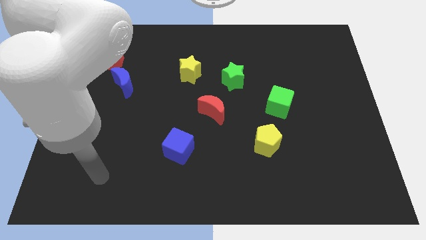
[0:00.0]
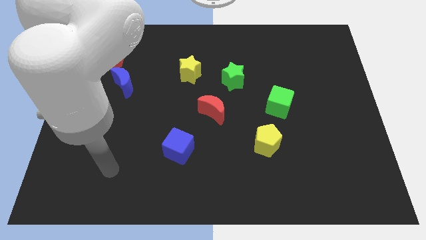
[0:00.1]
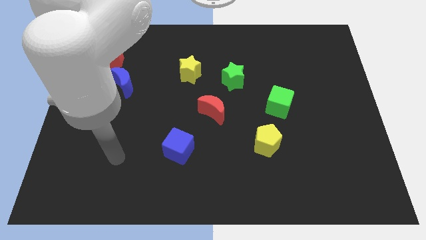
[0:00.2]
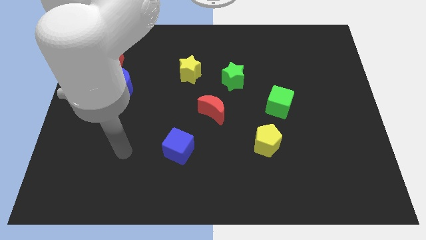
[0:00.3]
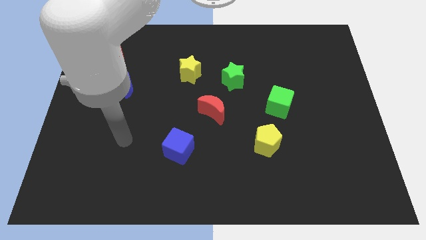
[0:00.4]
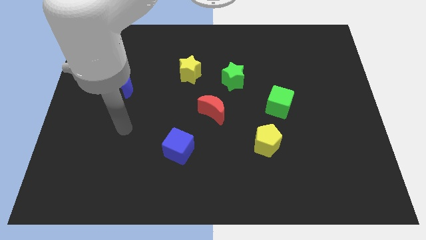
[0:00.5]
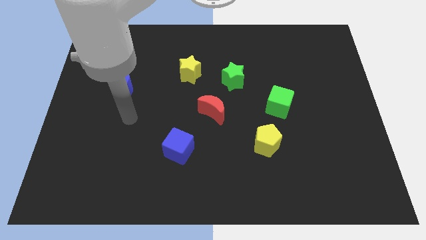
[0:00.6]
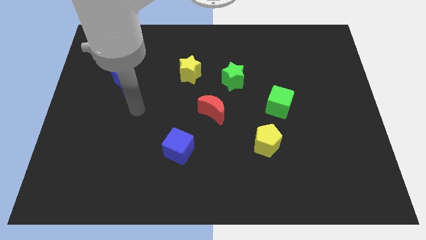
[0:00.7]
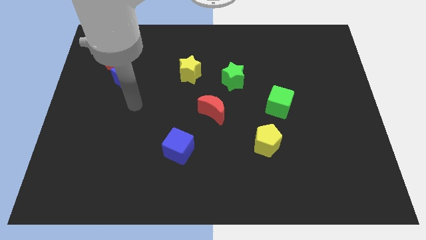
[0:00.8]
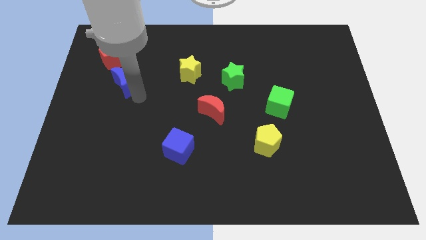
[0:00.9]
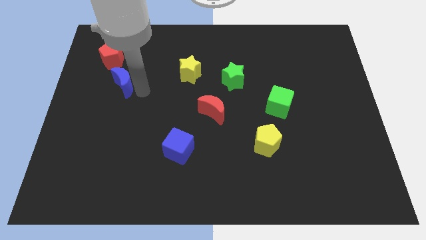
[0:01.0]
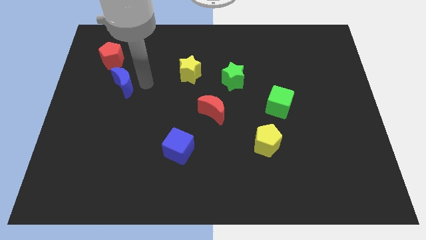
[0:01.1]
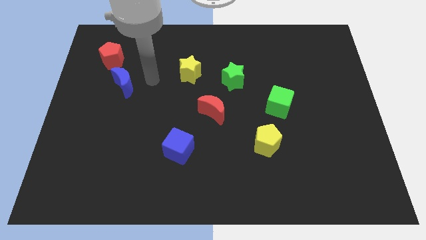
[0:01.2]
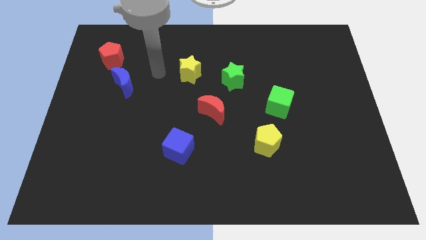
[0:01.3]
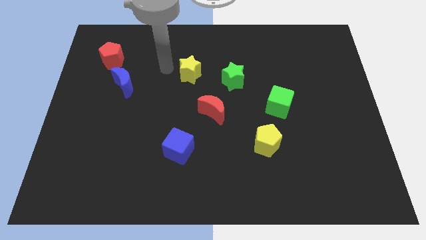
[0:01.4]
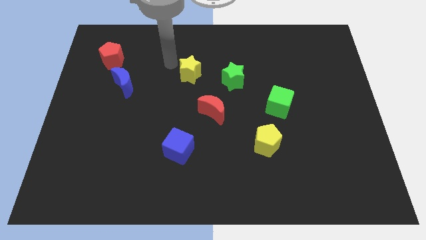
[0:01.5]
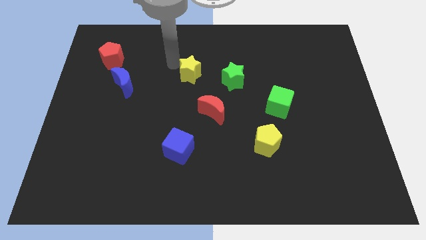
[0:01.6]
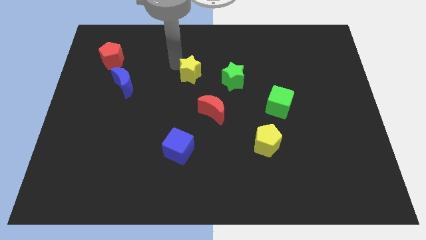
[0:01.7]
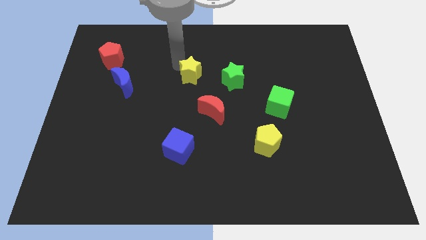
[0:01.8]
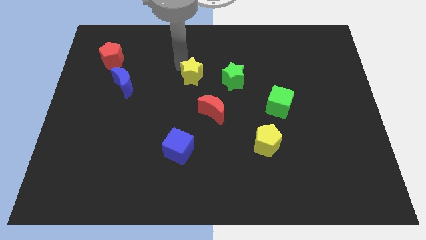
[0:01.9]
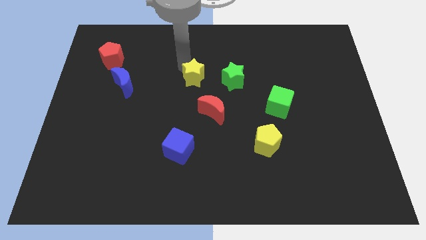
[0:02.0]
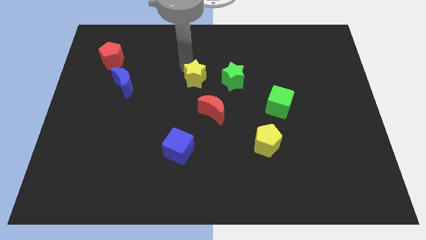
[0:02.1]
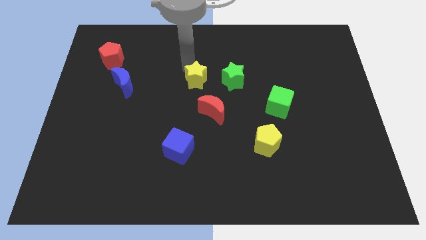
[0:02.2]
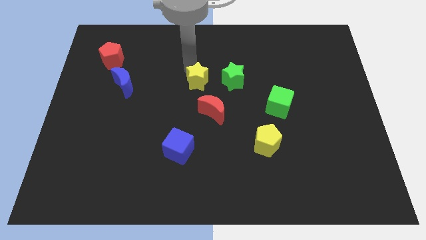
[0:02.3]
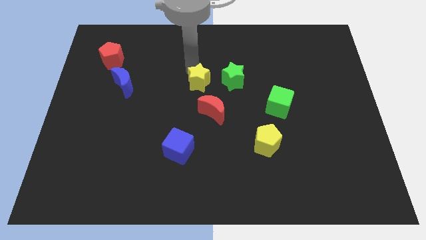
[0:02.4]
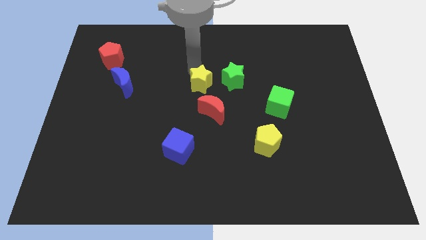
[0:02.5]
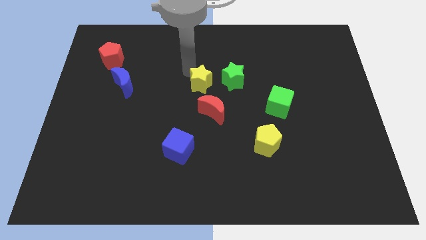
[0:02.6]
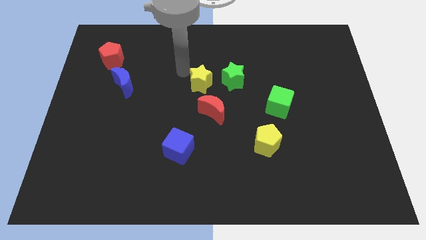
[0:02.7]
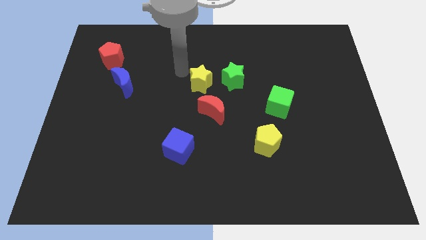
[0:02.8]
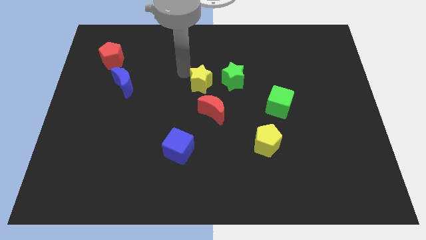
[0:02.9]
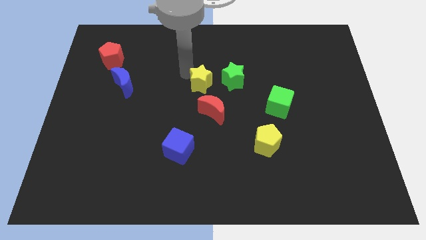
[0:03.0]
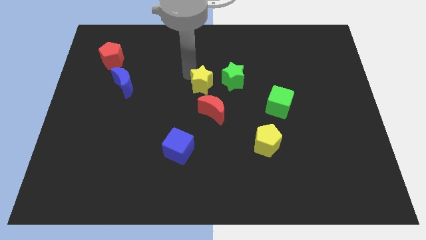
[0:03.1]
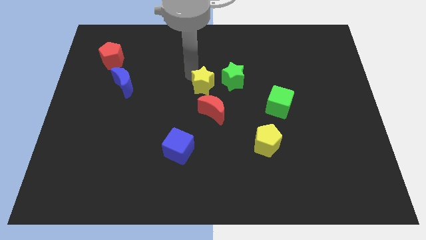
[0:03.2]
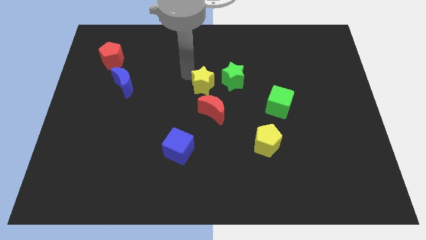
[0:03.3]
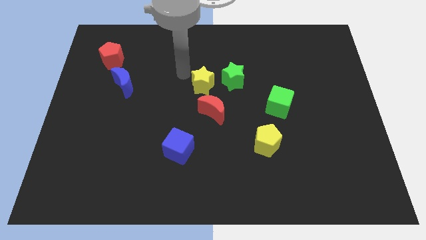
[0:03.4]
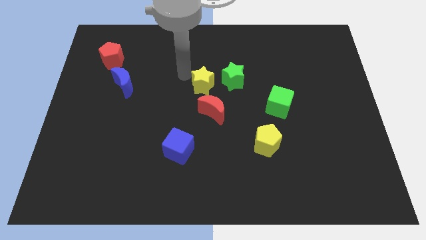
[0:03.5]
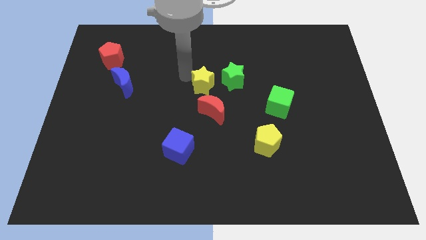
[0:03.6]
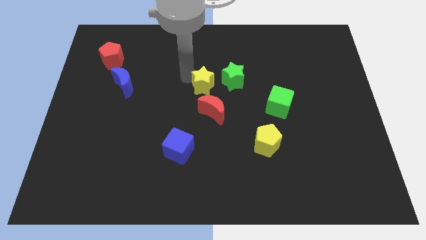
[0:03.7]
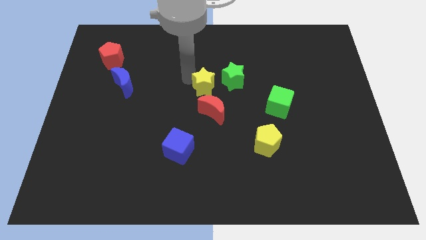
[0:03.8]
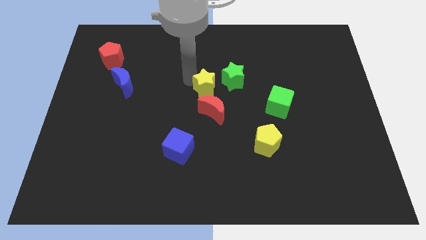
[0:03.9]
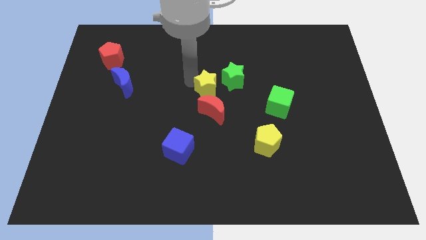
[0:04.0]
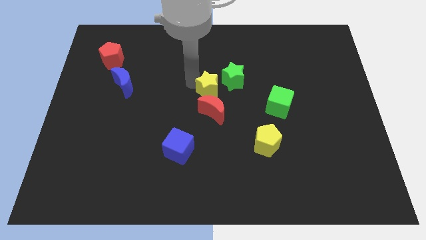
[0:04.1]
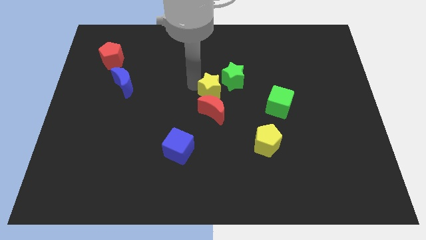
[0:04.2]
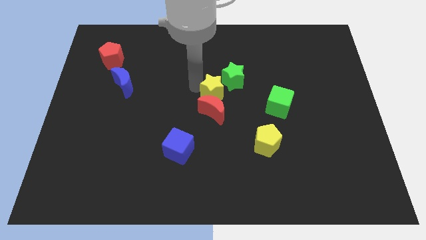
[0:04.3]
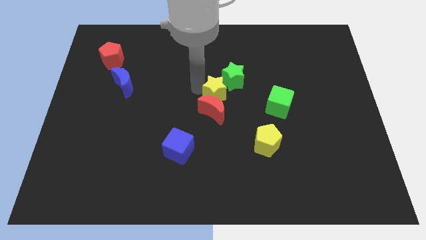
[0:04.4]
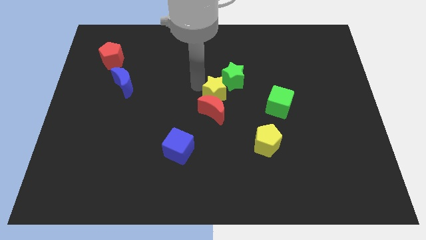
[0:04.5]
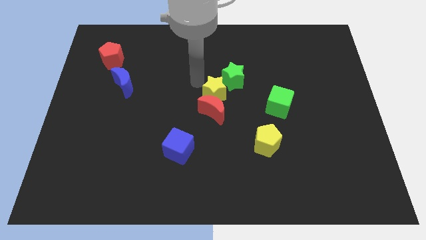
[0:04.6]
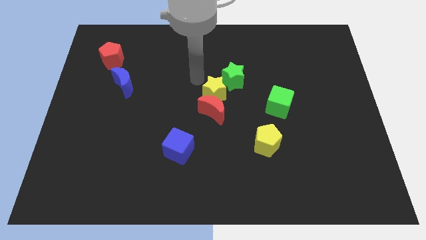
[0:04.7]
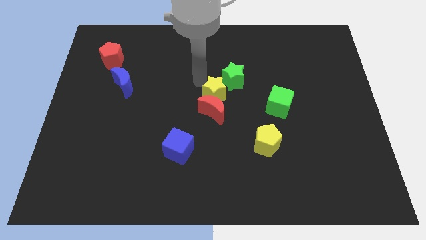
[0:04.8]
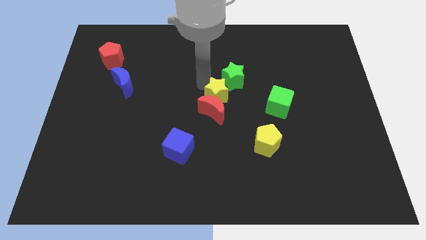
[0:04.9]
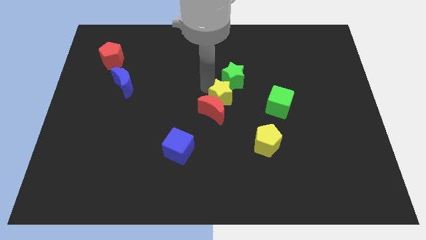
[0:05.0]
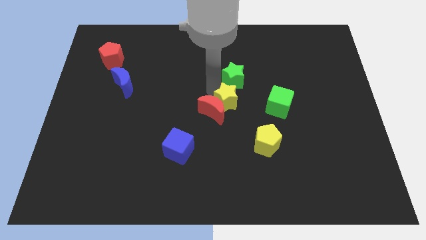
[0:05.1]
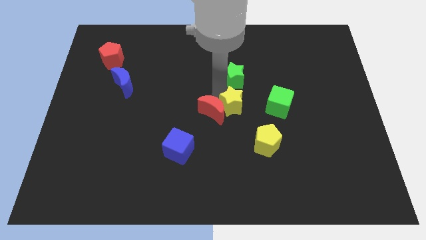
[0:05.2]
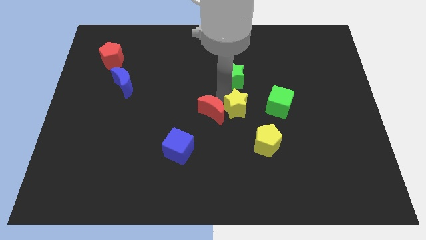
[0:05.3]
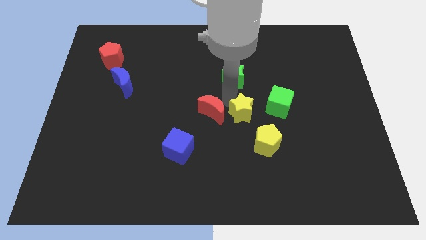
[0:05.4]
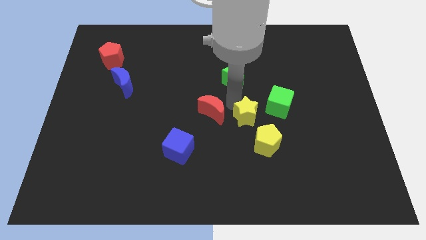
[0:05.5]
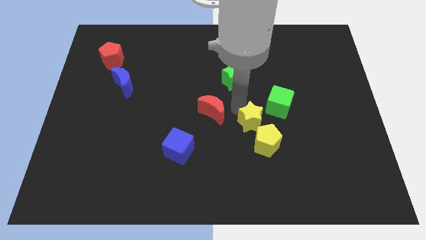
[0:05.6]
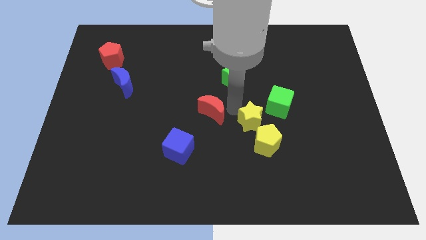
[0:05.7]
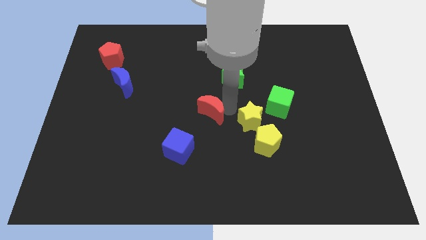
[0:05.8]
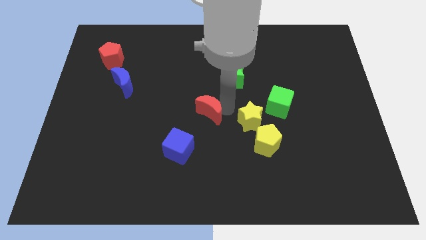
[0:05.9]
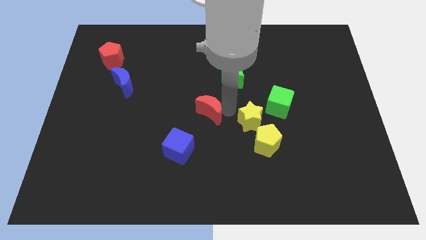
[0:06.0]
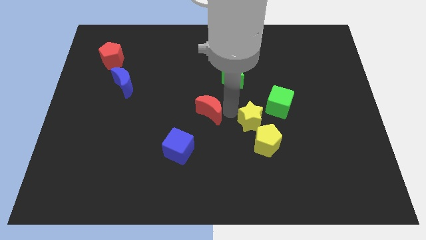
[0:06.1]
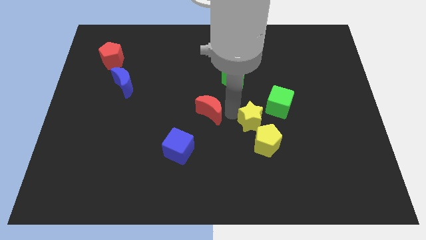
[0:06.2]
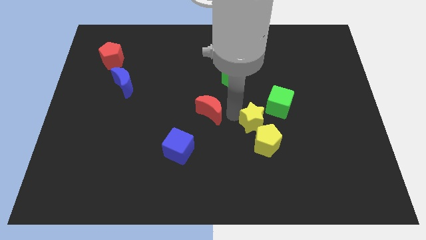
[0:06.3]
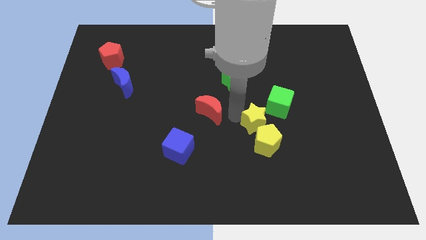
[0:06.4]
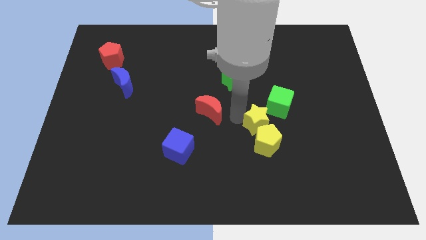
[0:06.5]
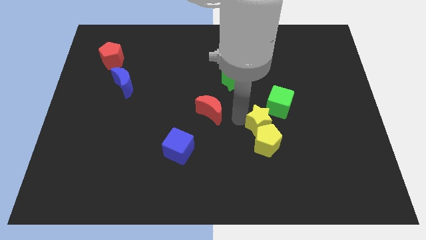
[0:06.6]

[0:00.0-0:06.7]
slide the yellow star below the green cube

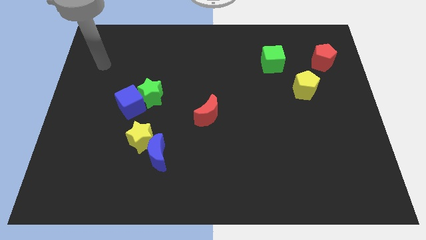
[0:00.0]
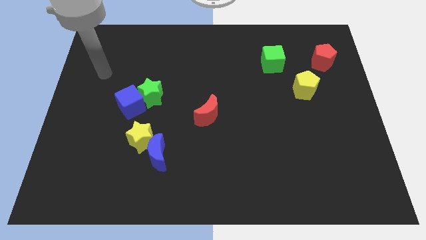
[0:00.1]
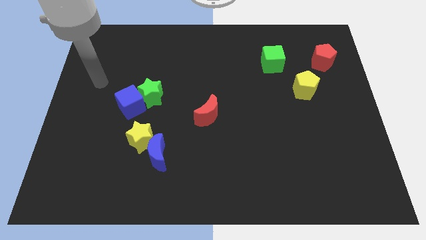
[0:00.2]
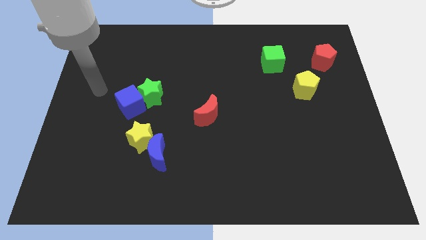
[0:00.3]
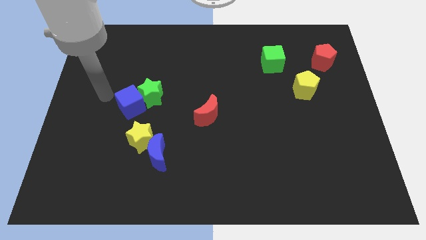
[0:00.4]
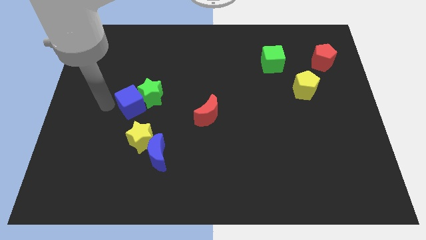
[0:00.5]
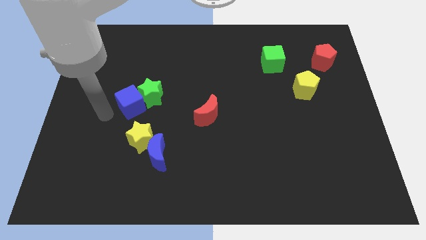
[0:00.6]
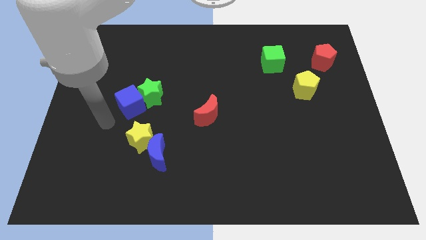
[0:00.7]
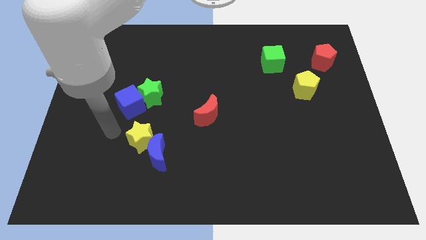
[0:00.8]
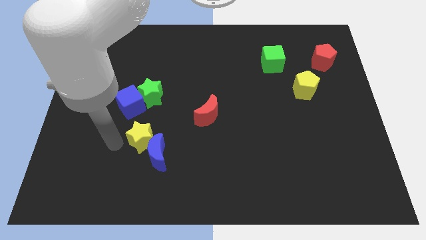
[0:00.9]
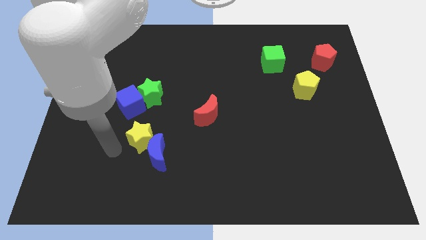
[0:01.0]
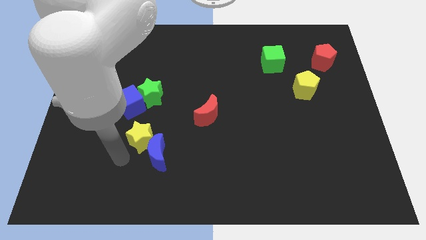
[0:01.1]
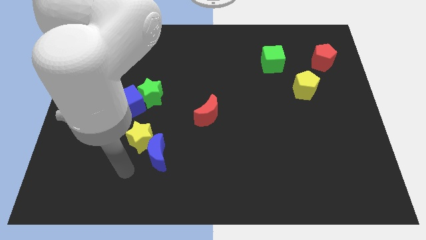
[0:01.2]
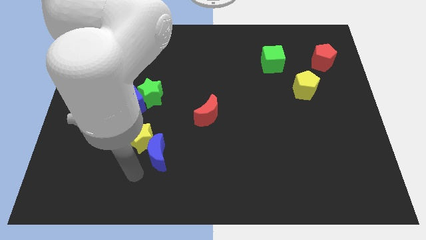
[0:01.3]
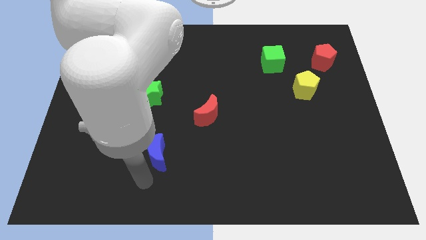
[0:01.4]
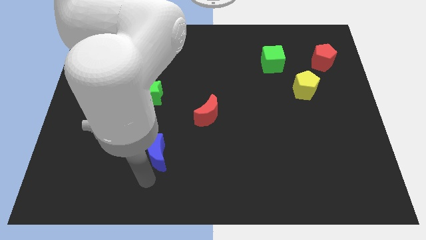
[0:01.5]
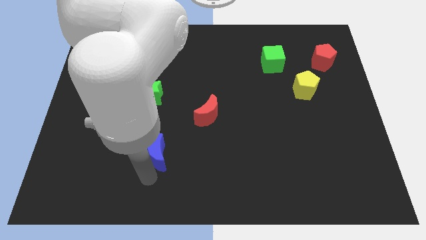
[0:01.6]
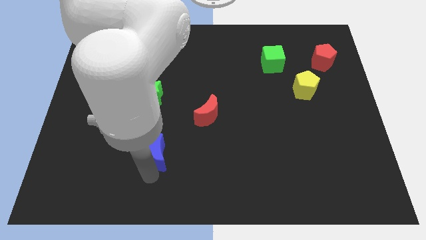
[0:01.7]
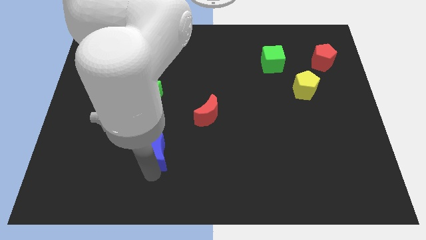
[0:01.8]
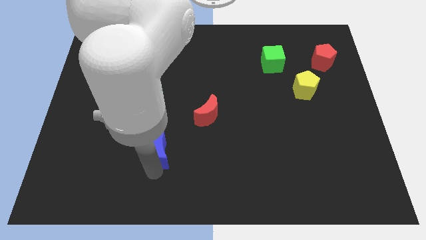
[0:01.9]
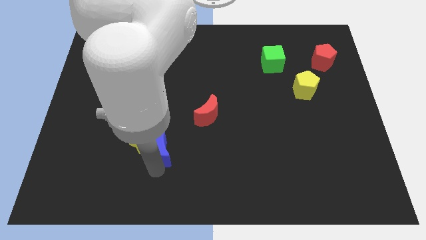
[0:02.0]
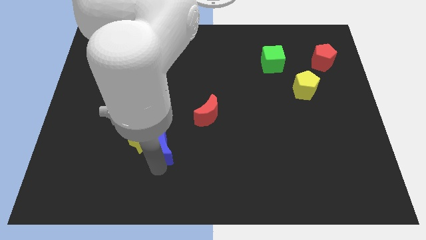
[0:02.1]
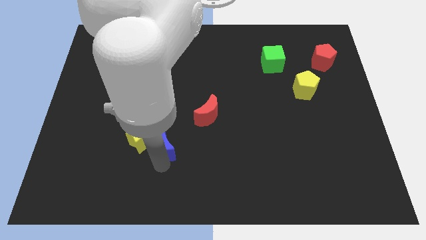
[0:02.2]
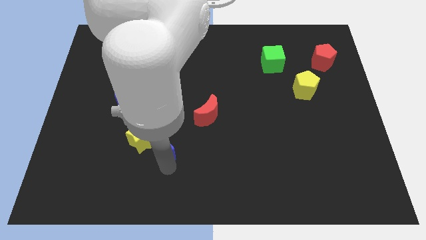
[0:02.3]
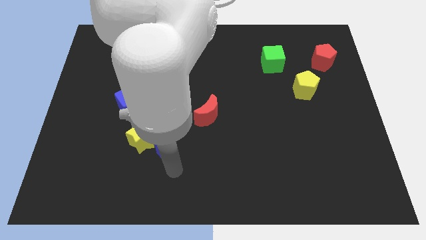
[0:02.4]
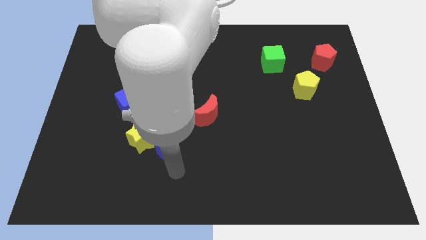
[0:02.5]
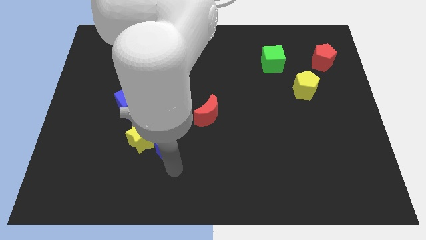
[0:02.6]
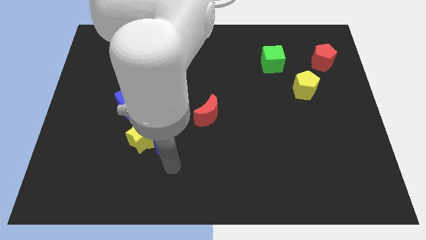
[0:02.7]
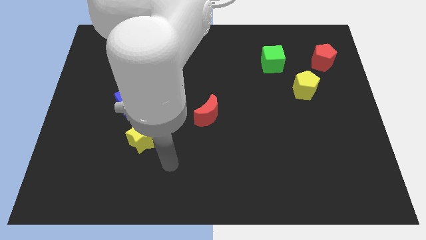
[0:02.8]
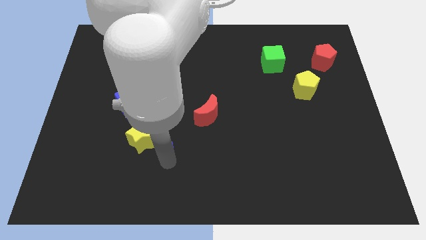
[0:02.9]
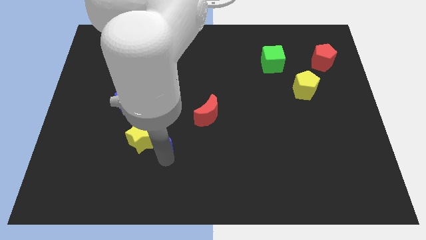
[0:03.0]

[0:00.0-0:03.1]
move the blue moon to the bottom right side of the blue cube
